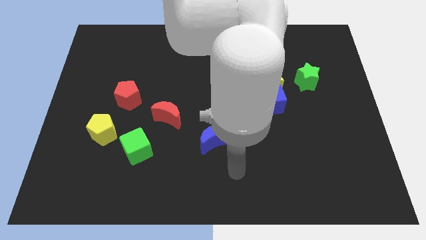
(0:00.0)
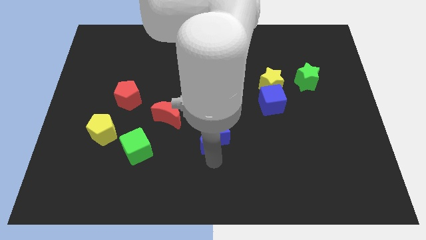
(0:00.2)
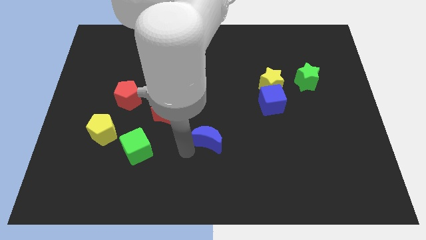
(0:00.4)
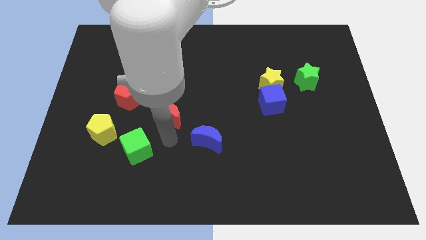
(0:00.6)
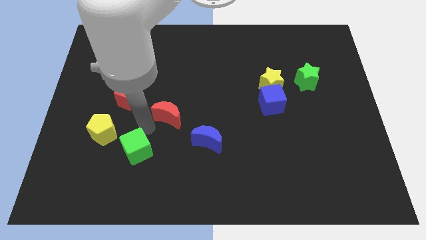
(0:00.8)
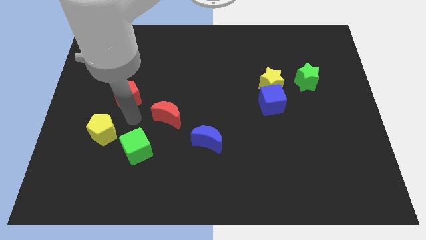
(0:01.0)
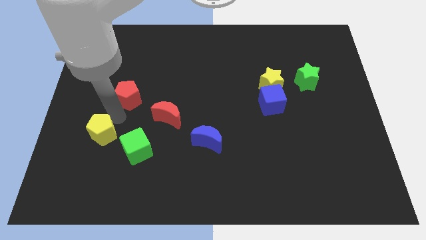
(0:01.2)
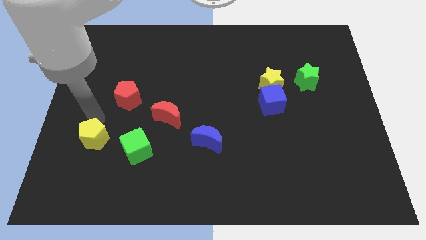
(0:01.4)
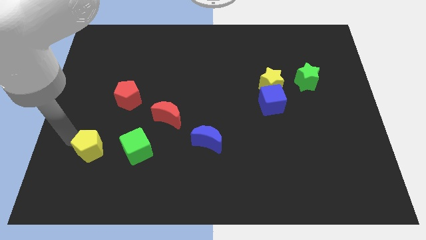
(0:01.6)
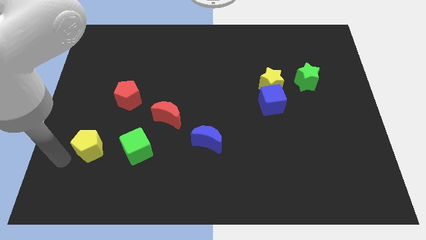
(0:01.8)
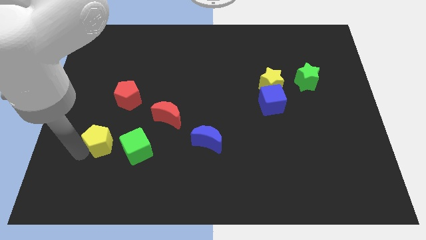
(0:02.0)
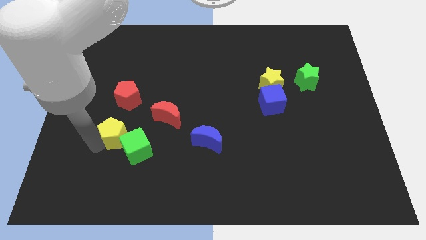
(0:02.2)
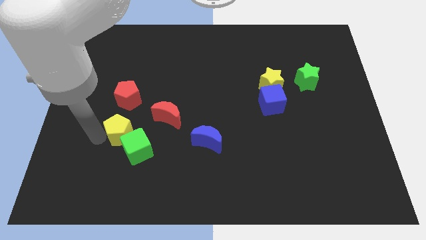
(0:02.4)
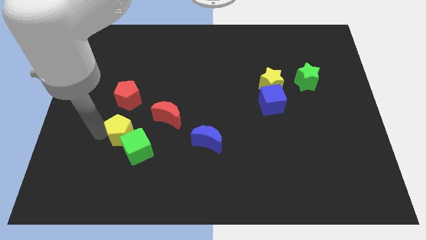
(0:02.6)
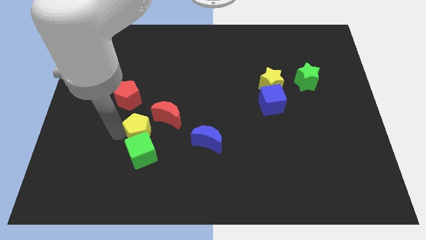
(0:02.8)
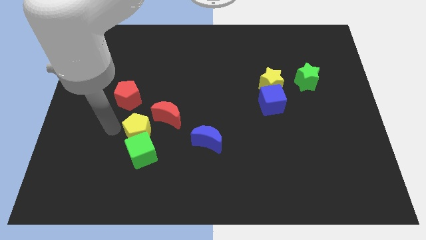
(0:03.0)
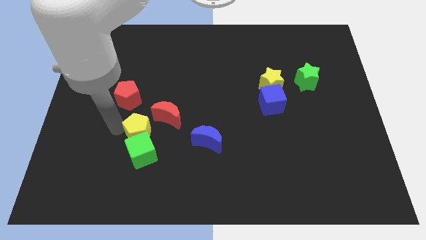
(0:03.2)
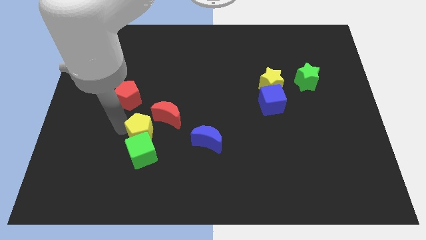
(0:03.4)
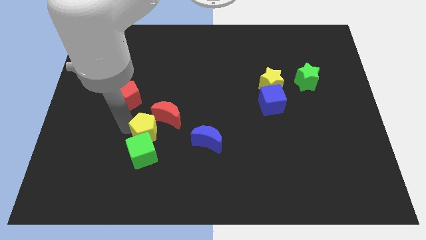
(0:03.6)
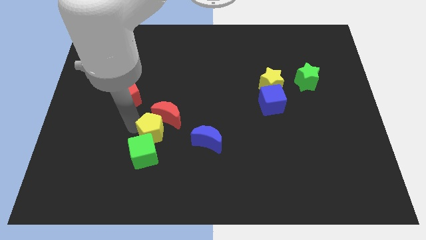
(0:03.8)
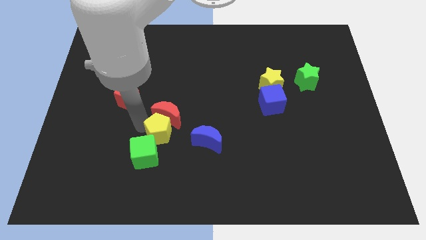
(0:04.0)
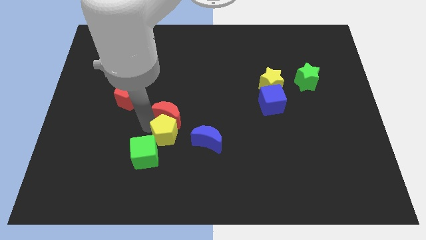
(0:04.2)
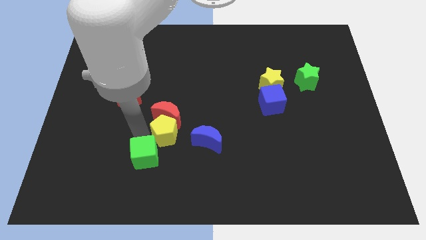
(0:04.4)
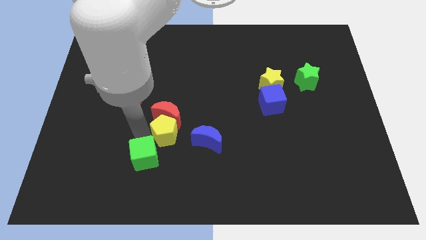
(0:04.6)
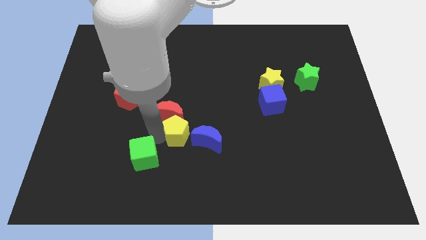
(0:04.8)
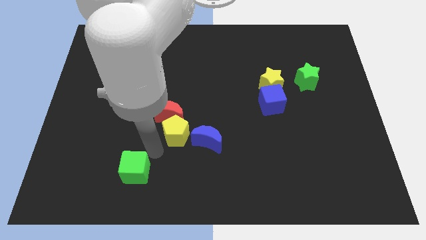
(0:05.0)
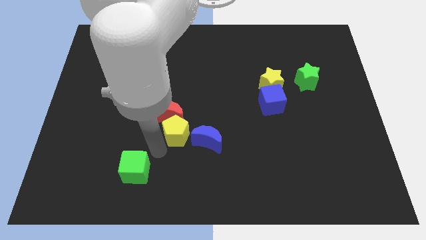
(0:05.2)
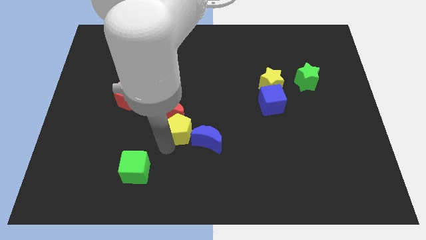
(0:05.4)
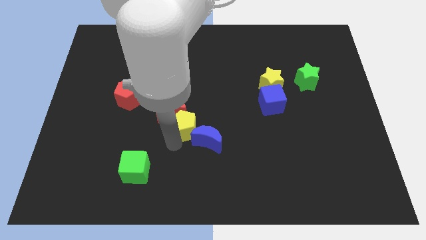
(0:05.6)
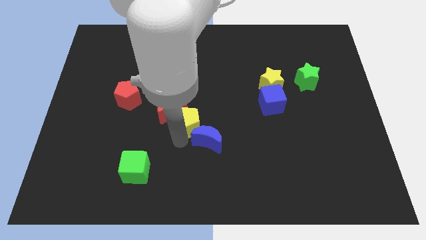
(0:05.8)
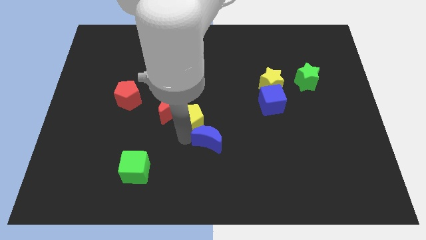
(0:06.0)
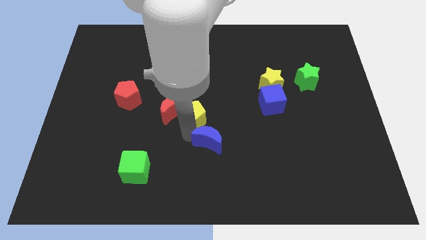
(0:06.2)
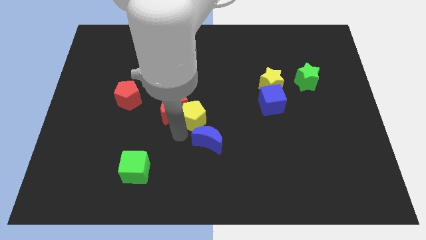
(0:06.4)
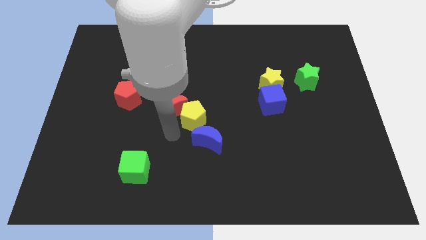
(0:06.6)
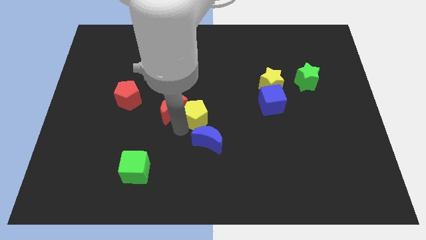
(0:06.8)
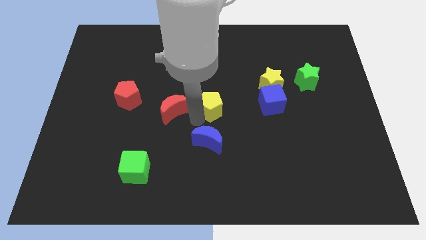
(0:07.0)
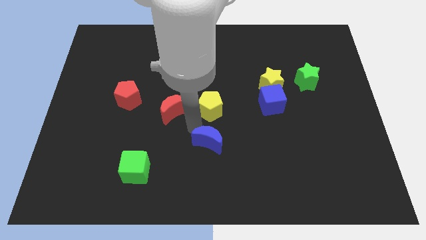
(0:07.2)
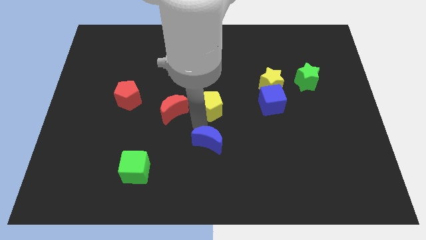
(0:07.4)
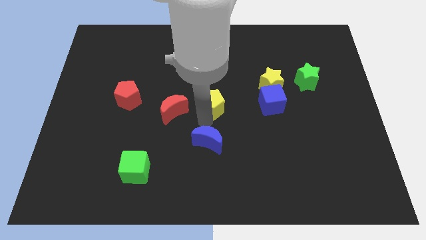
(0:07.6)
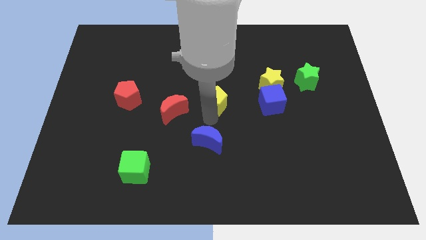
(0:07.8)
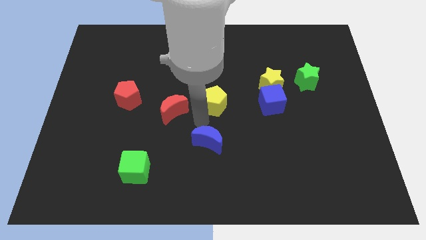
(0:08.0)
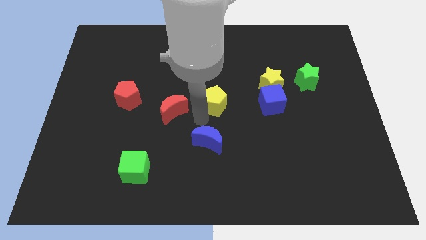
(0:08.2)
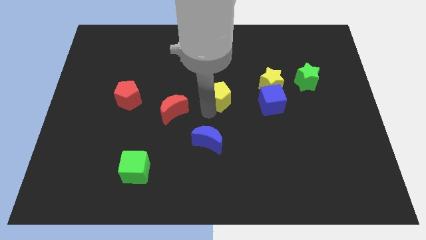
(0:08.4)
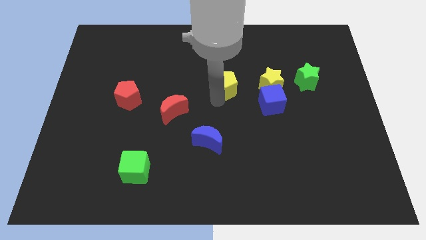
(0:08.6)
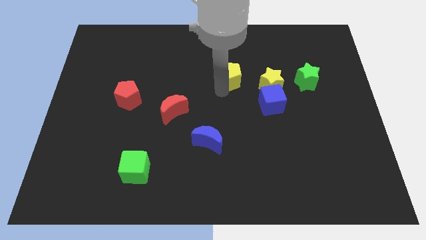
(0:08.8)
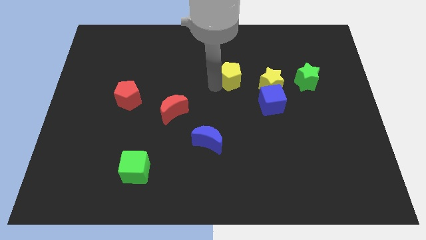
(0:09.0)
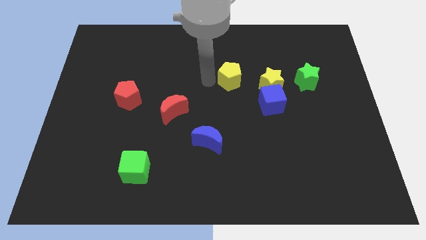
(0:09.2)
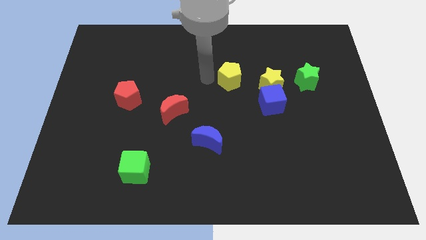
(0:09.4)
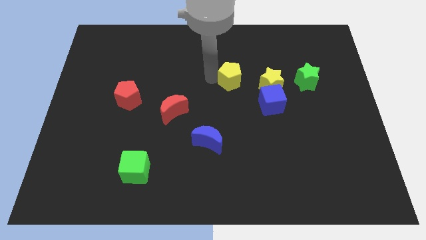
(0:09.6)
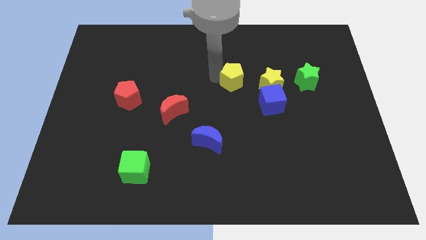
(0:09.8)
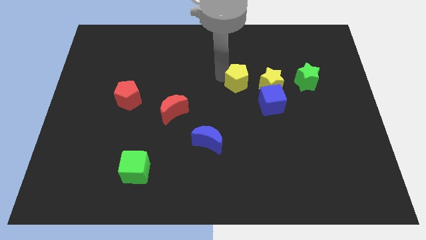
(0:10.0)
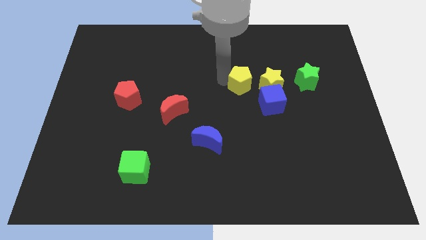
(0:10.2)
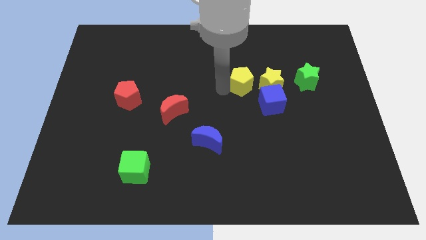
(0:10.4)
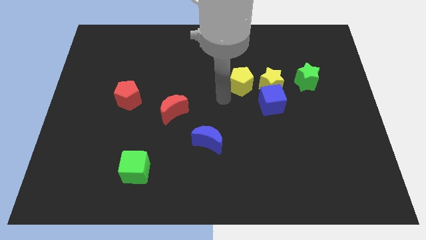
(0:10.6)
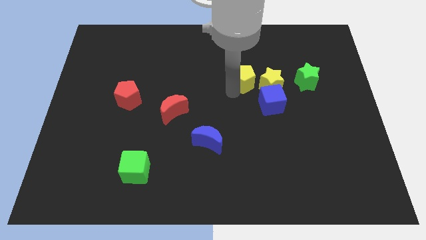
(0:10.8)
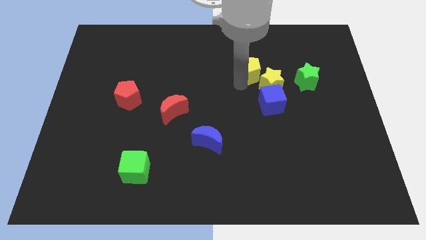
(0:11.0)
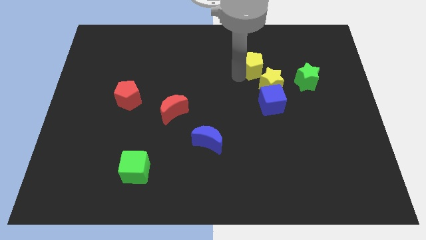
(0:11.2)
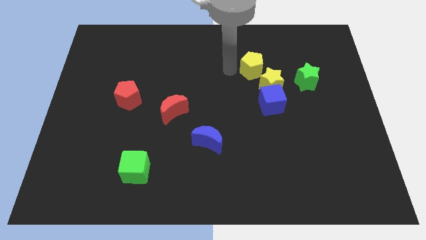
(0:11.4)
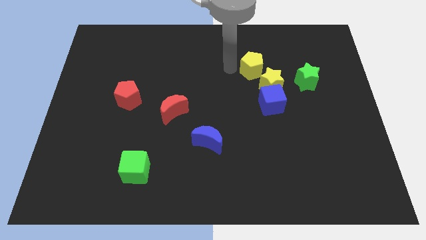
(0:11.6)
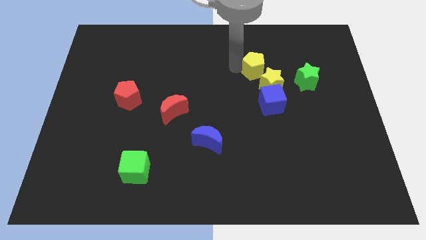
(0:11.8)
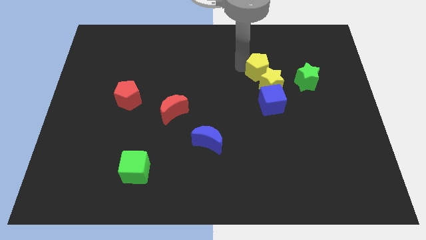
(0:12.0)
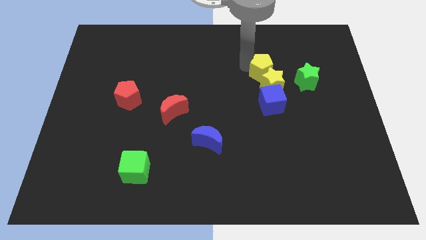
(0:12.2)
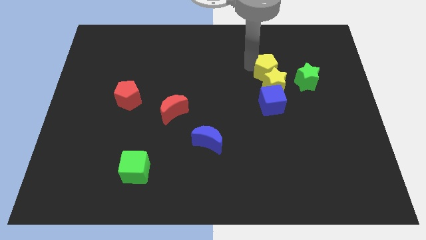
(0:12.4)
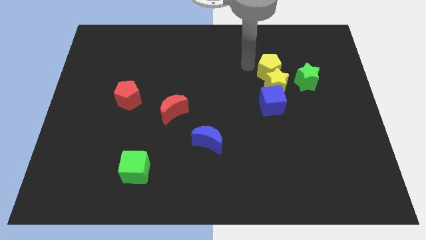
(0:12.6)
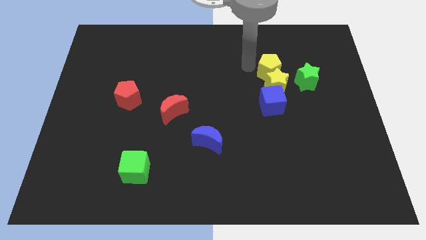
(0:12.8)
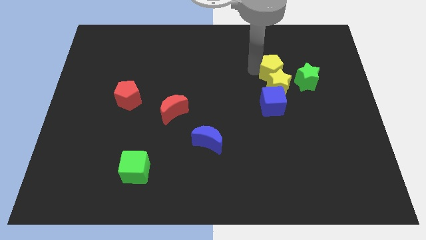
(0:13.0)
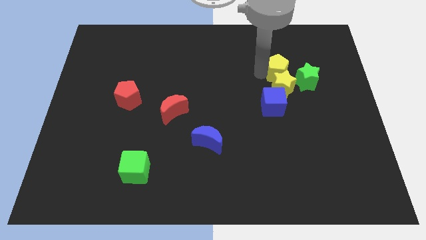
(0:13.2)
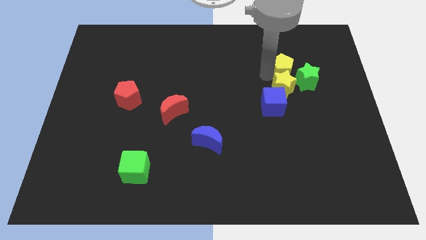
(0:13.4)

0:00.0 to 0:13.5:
put the yellow pentagon towards the green star

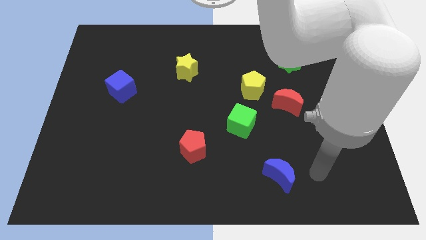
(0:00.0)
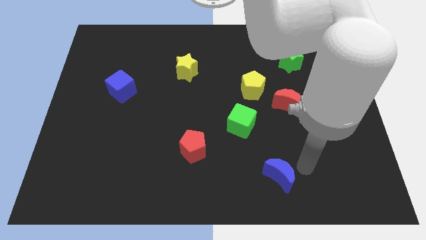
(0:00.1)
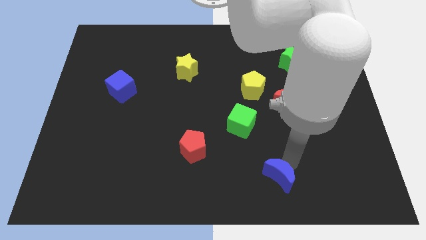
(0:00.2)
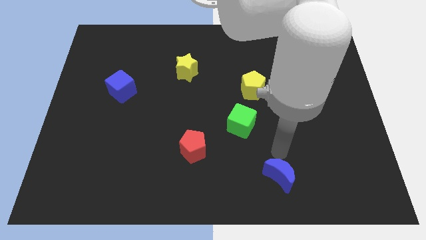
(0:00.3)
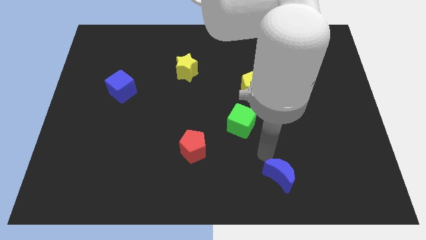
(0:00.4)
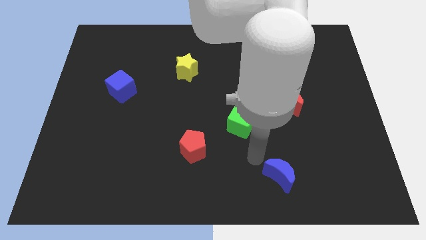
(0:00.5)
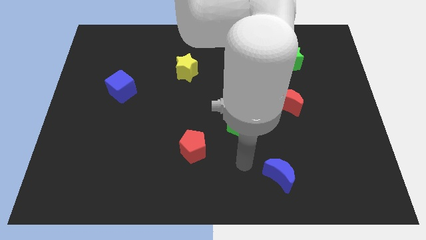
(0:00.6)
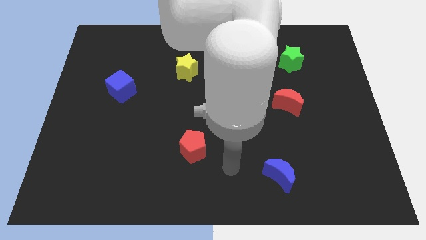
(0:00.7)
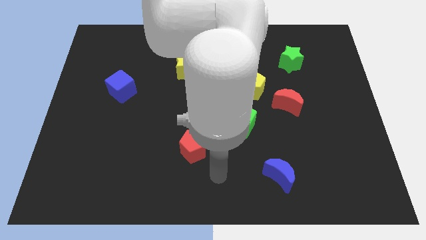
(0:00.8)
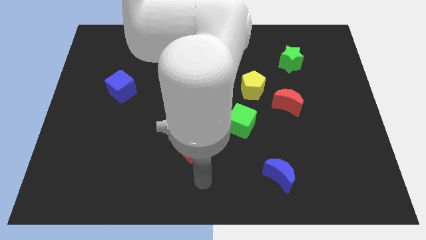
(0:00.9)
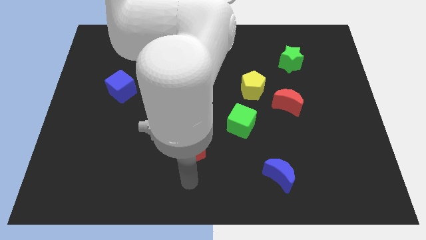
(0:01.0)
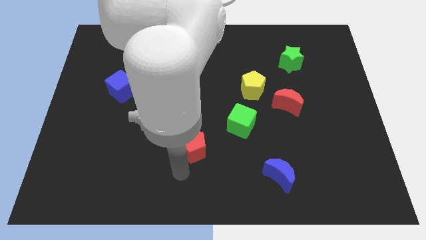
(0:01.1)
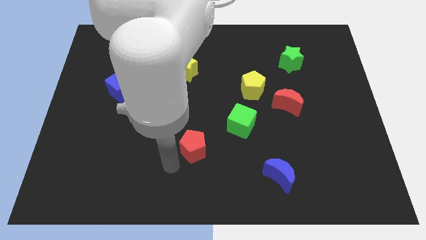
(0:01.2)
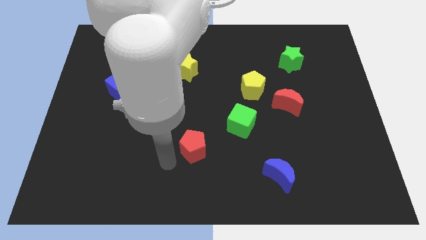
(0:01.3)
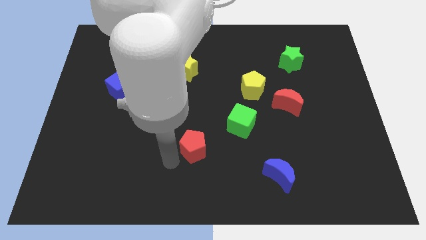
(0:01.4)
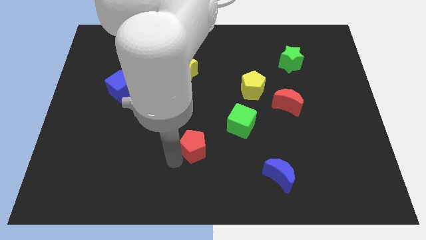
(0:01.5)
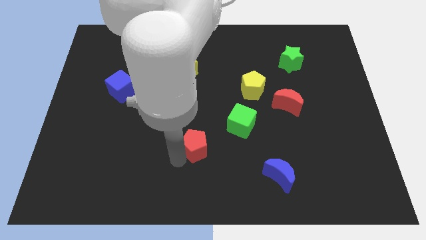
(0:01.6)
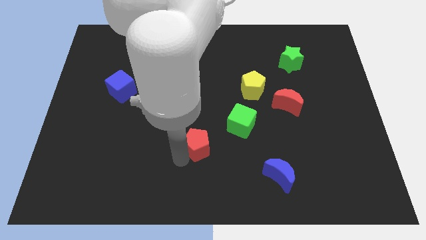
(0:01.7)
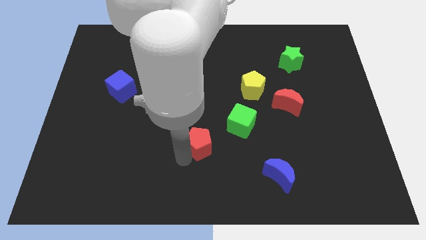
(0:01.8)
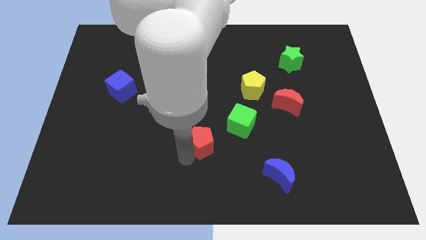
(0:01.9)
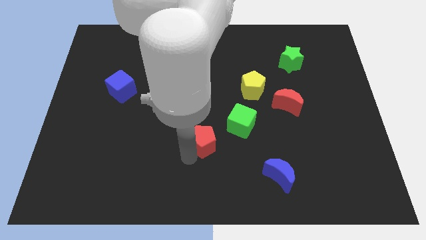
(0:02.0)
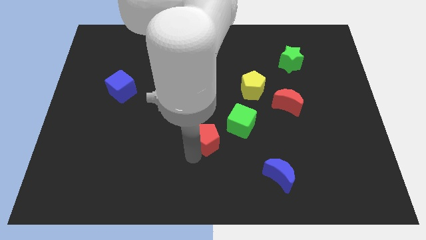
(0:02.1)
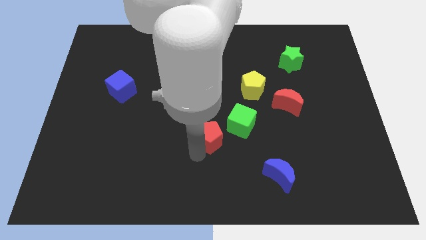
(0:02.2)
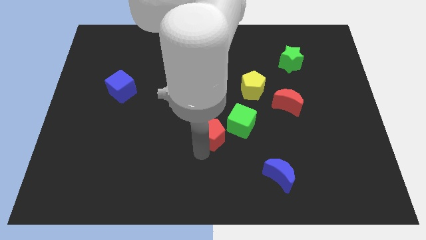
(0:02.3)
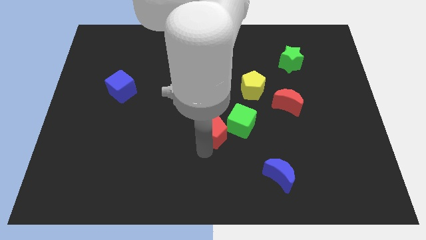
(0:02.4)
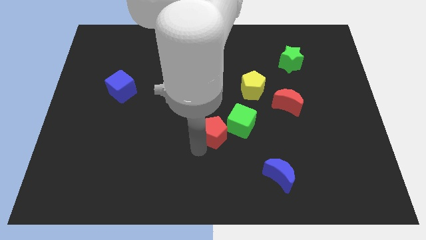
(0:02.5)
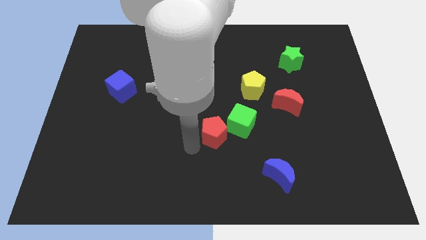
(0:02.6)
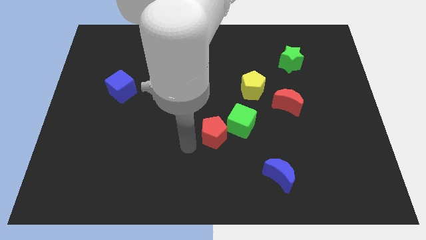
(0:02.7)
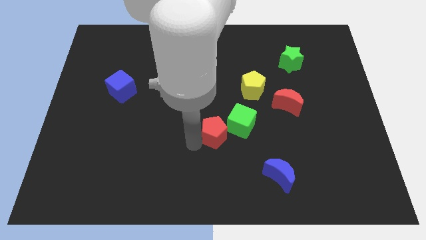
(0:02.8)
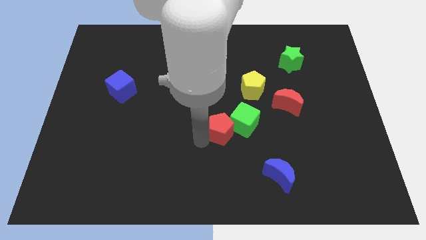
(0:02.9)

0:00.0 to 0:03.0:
put the red pentagon towards the green cube
